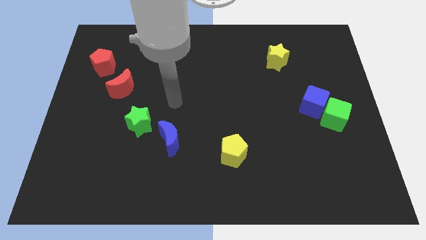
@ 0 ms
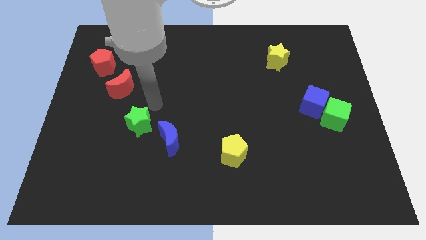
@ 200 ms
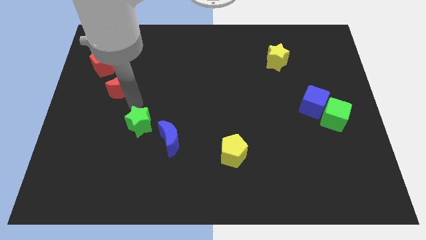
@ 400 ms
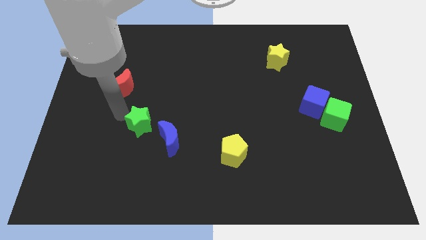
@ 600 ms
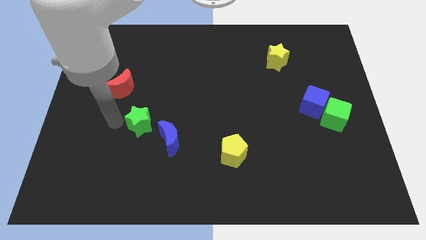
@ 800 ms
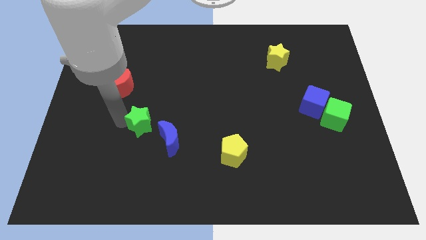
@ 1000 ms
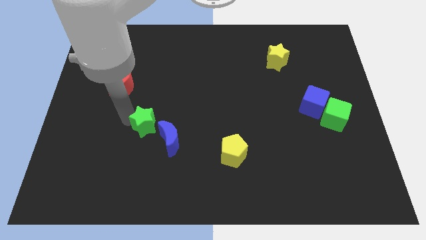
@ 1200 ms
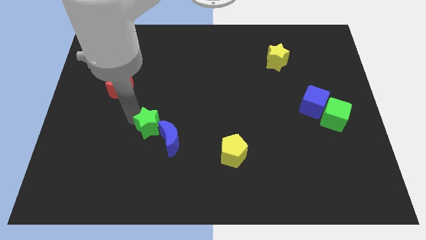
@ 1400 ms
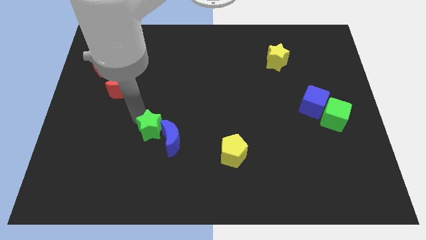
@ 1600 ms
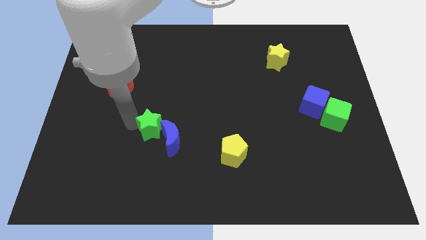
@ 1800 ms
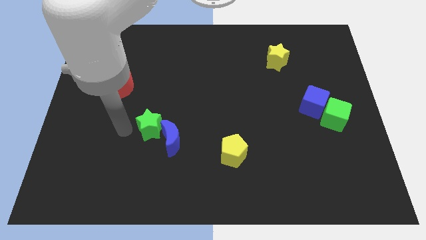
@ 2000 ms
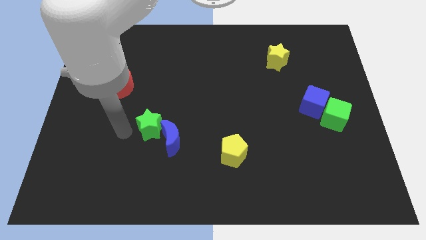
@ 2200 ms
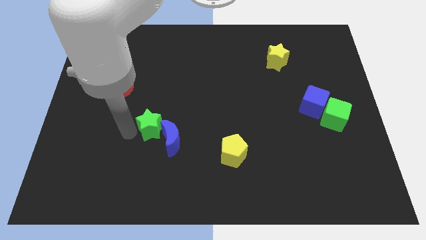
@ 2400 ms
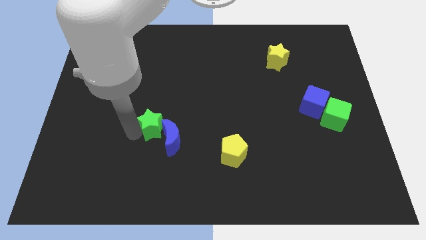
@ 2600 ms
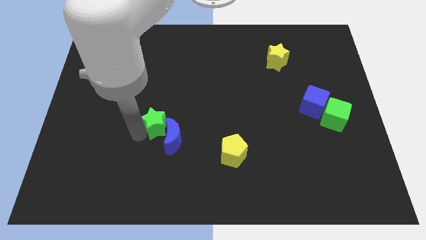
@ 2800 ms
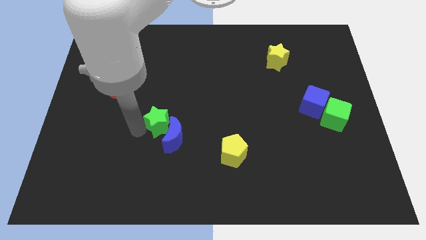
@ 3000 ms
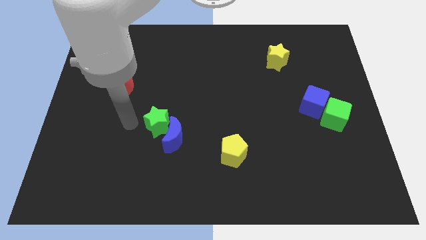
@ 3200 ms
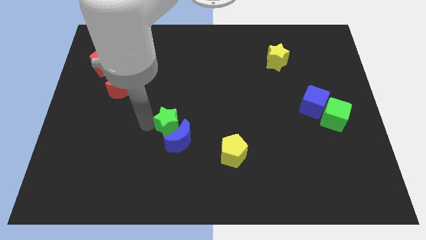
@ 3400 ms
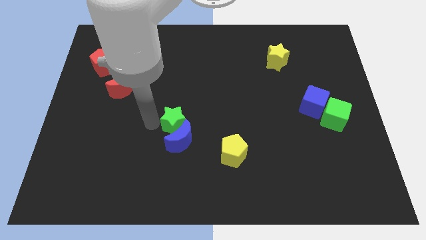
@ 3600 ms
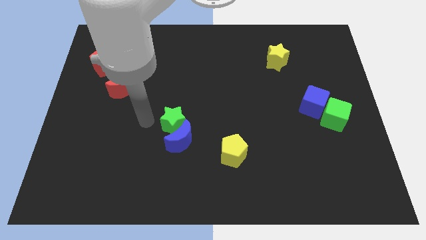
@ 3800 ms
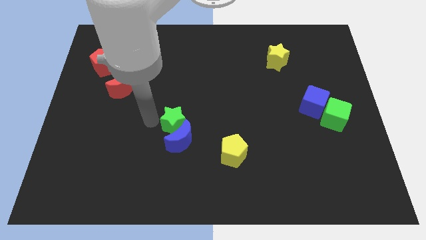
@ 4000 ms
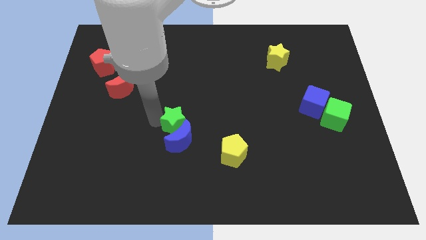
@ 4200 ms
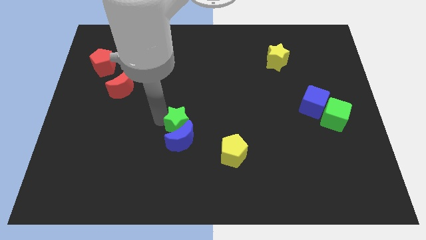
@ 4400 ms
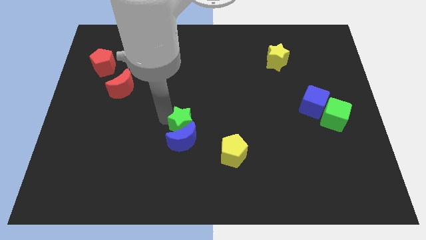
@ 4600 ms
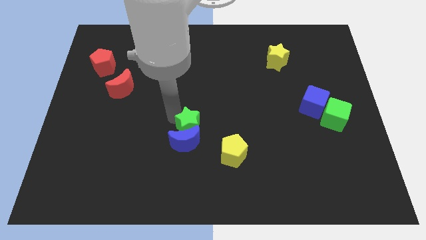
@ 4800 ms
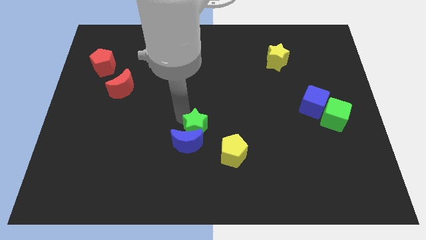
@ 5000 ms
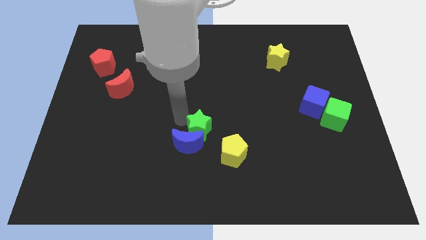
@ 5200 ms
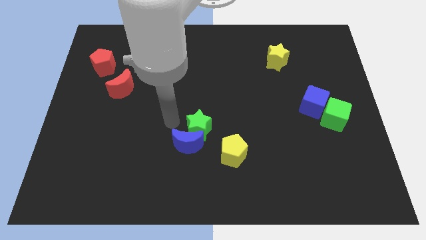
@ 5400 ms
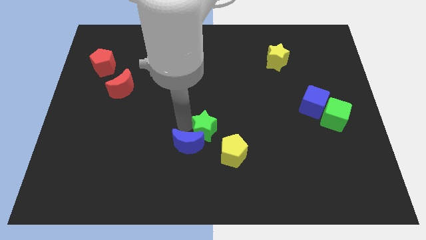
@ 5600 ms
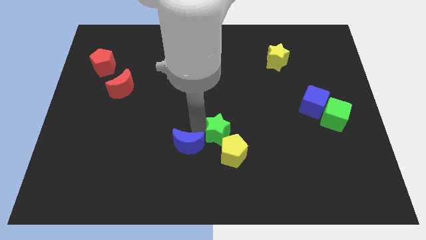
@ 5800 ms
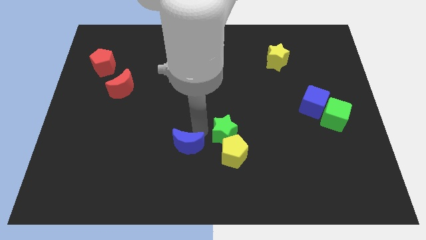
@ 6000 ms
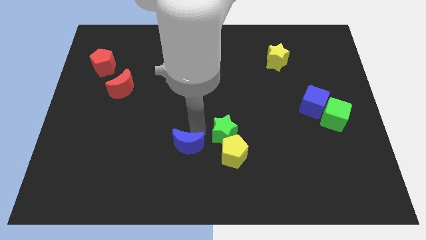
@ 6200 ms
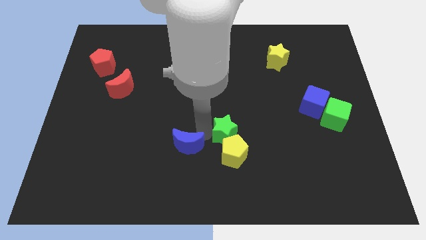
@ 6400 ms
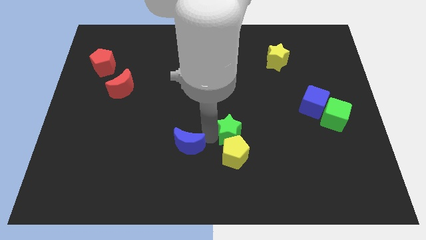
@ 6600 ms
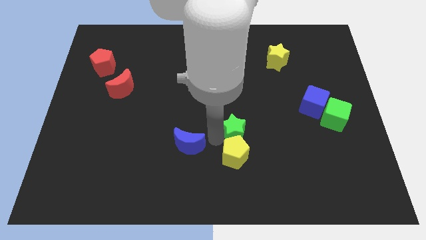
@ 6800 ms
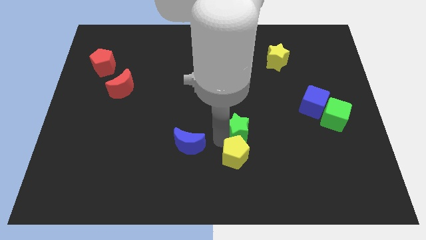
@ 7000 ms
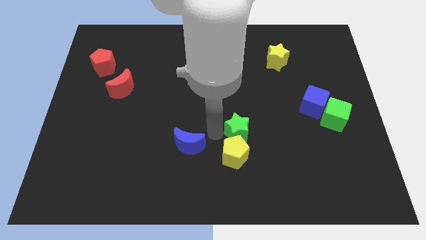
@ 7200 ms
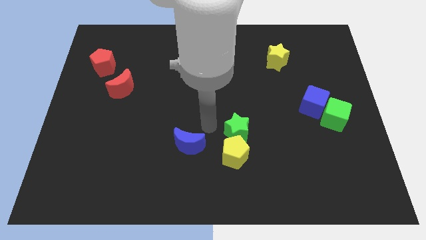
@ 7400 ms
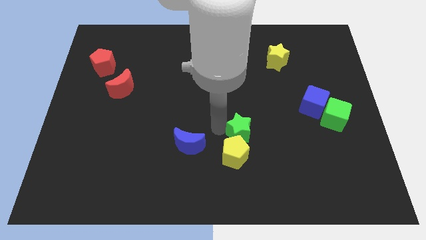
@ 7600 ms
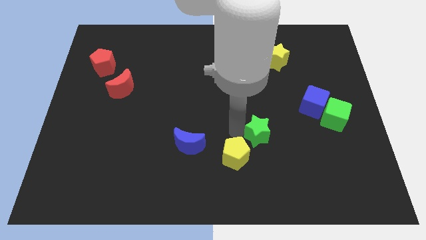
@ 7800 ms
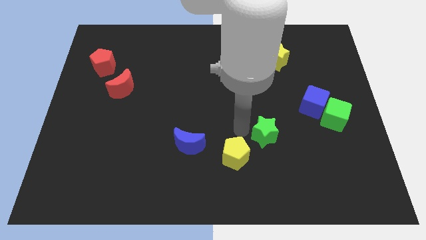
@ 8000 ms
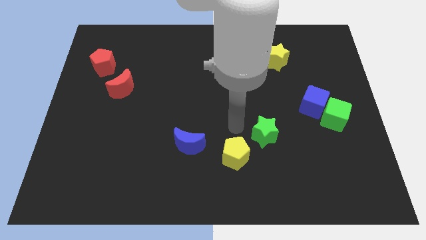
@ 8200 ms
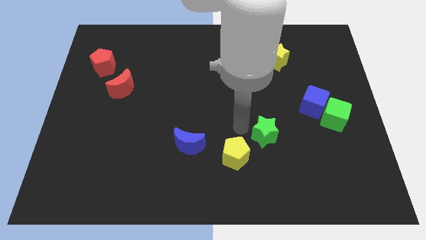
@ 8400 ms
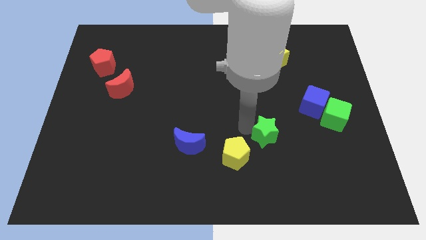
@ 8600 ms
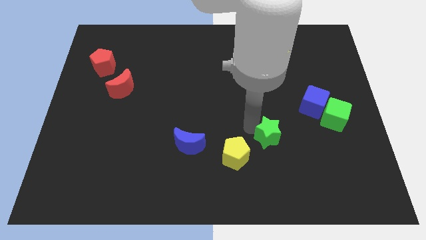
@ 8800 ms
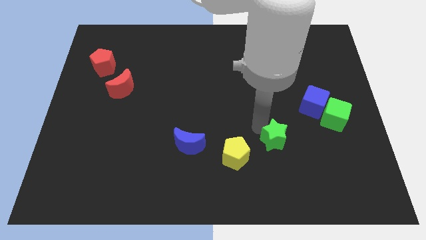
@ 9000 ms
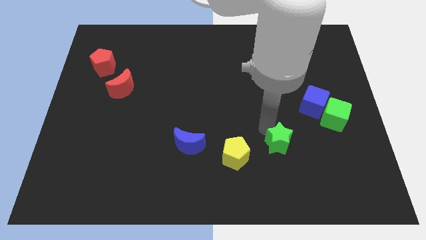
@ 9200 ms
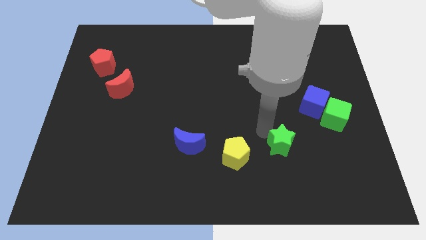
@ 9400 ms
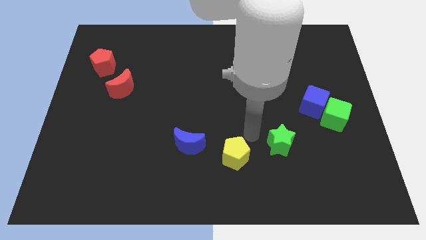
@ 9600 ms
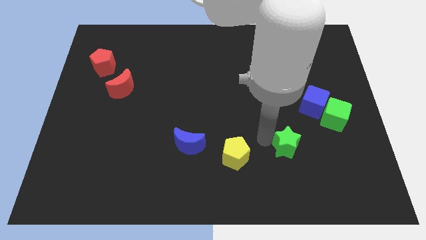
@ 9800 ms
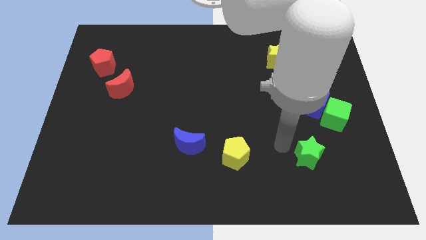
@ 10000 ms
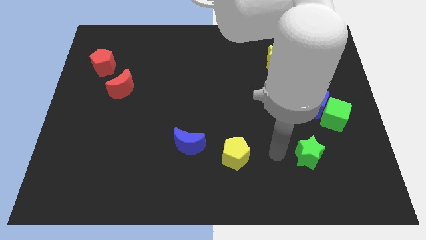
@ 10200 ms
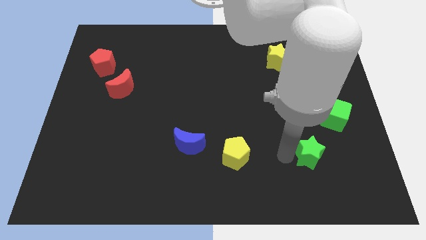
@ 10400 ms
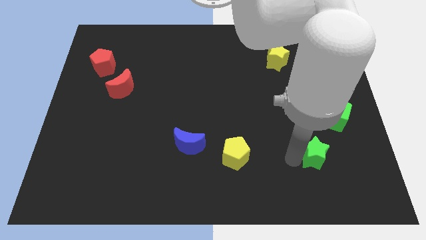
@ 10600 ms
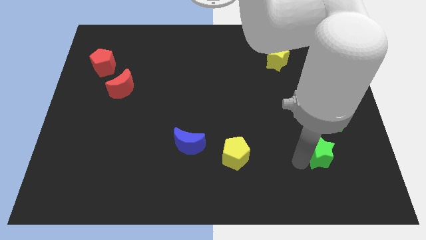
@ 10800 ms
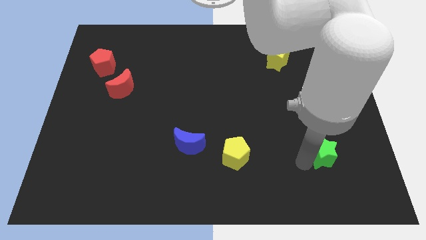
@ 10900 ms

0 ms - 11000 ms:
move the green star to the bottom of the green cube

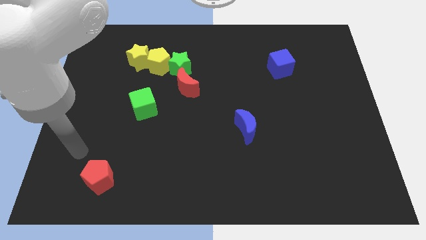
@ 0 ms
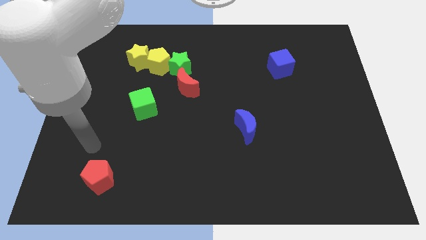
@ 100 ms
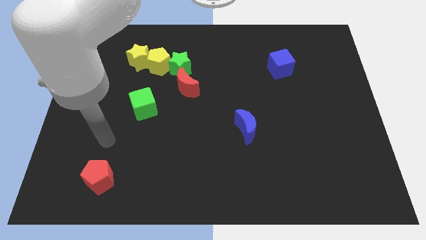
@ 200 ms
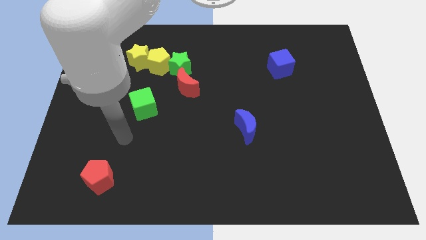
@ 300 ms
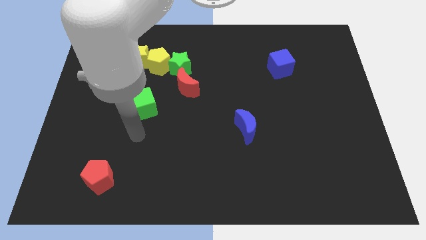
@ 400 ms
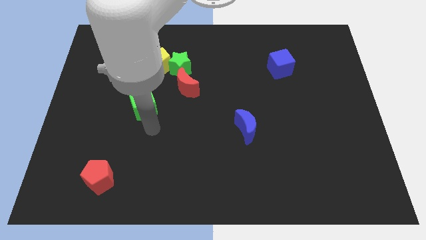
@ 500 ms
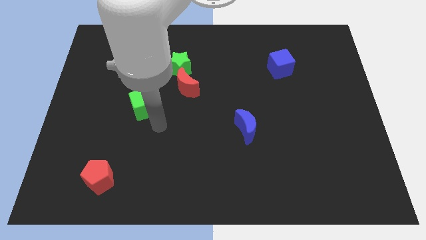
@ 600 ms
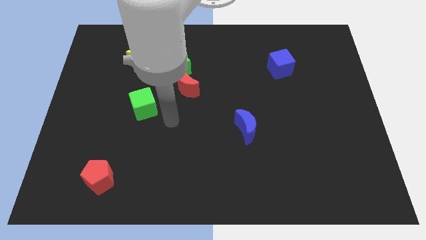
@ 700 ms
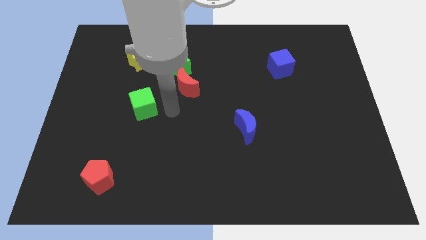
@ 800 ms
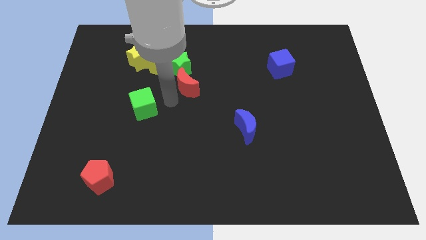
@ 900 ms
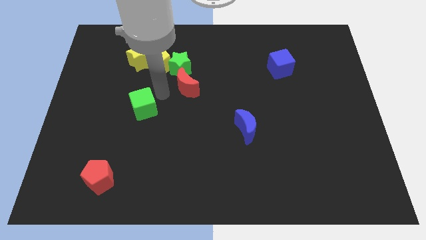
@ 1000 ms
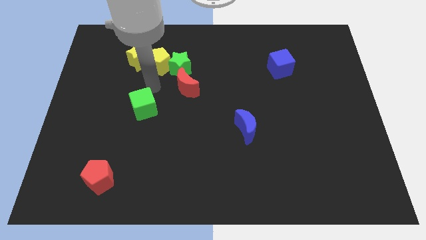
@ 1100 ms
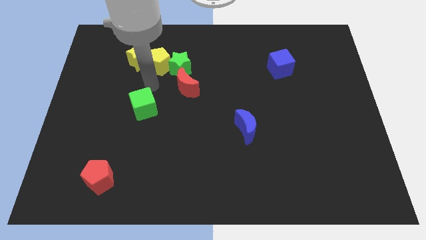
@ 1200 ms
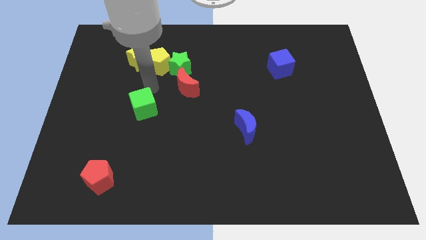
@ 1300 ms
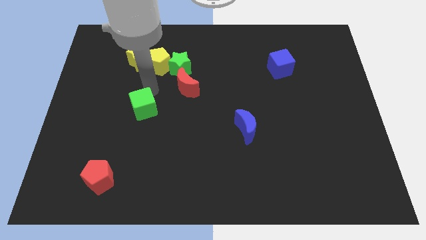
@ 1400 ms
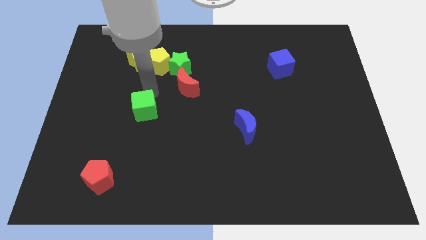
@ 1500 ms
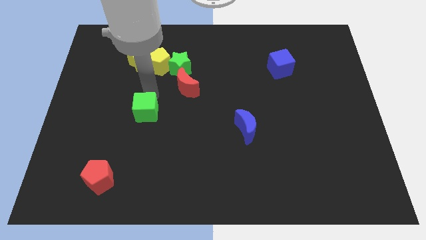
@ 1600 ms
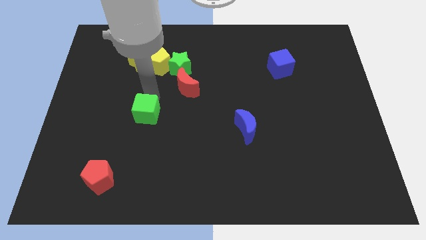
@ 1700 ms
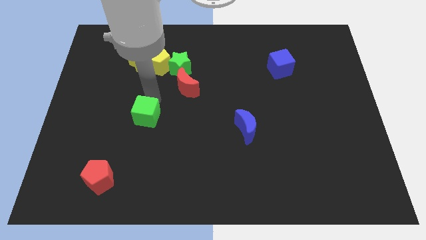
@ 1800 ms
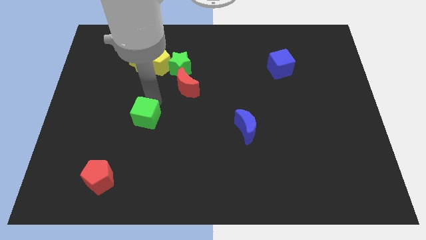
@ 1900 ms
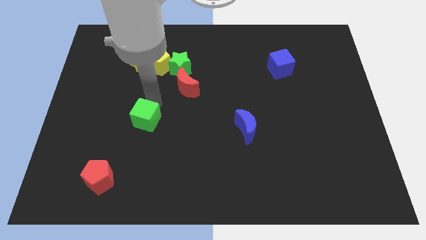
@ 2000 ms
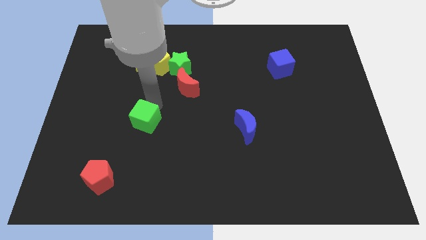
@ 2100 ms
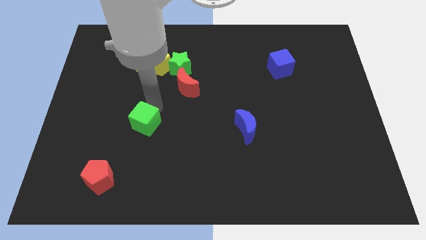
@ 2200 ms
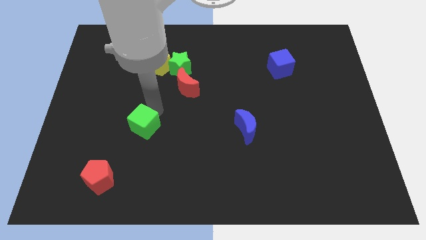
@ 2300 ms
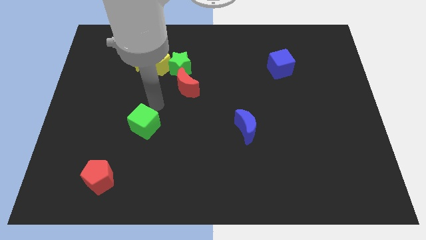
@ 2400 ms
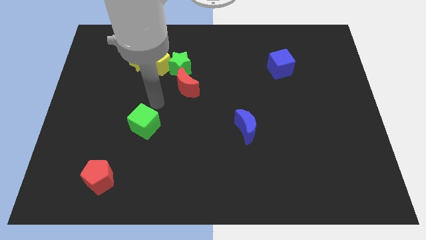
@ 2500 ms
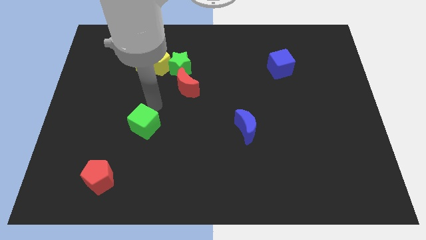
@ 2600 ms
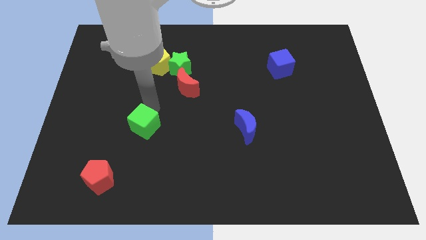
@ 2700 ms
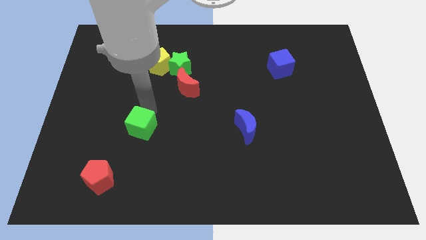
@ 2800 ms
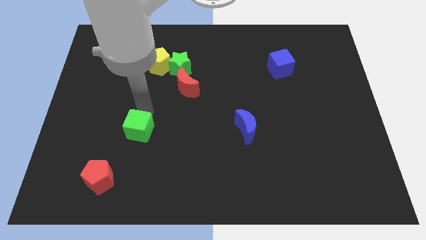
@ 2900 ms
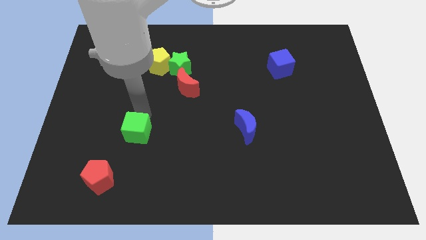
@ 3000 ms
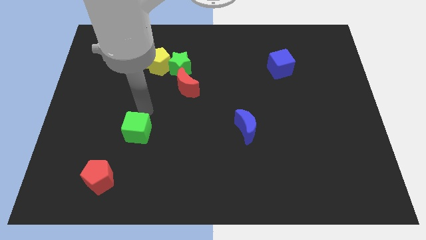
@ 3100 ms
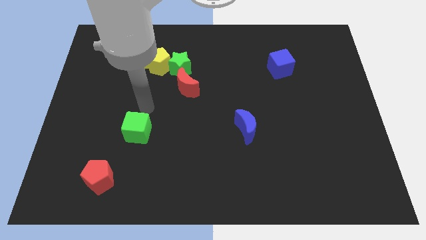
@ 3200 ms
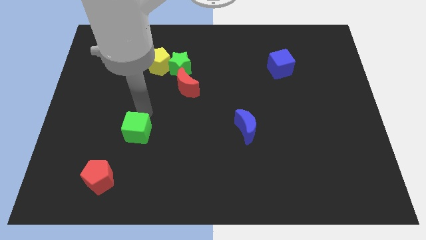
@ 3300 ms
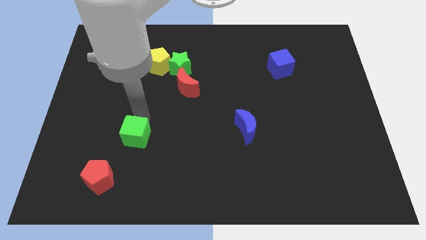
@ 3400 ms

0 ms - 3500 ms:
slide the green cube to the top right side of the red pentagon
